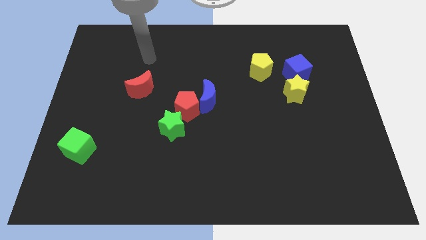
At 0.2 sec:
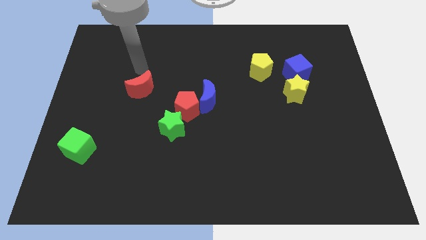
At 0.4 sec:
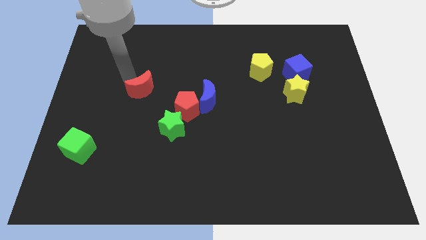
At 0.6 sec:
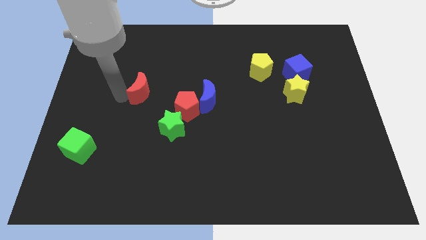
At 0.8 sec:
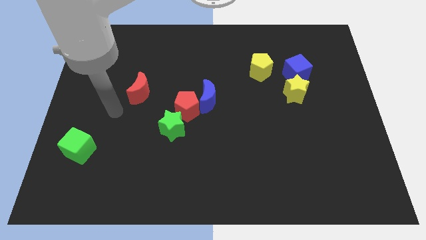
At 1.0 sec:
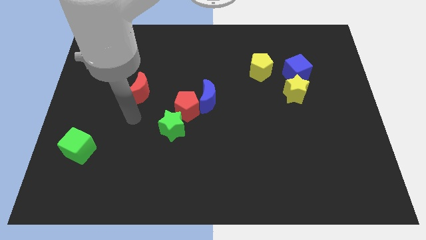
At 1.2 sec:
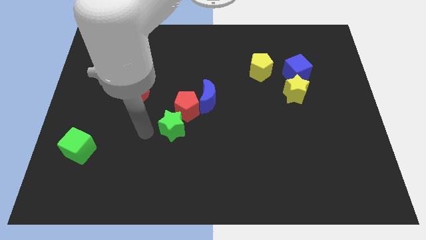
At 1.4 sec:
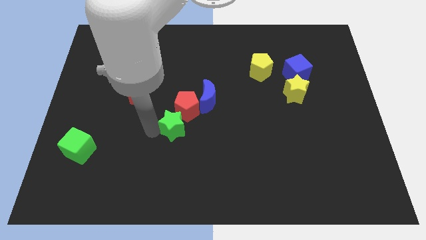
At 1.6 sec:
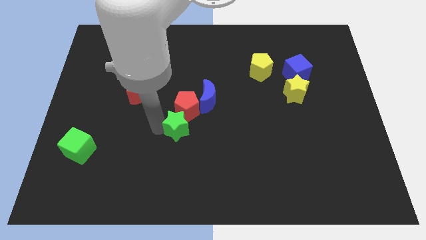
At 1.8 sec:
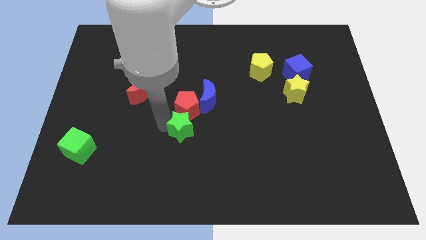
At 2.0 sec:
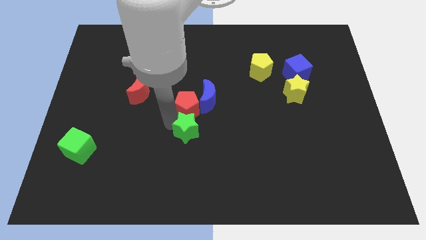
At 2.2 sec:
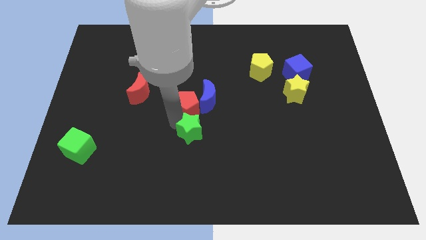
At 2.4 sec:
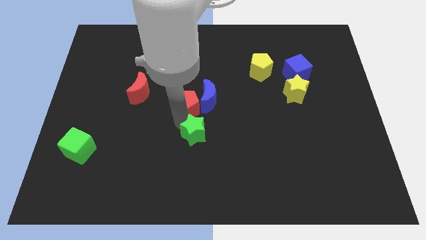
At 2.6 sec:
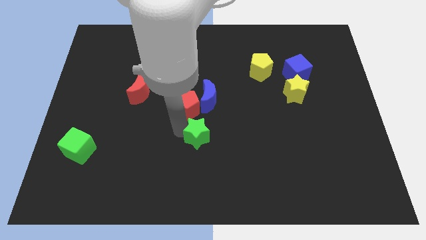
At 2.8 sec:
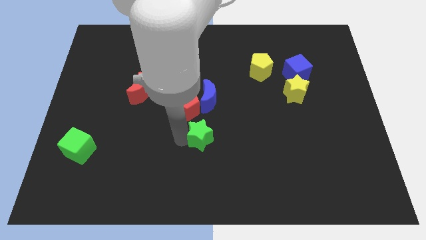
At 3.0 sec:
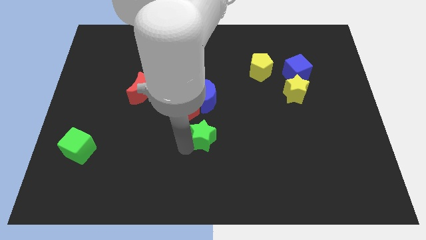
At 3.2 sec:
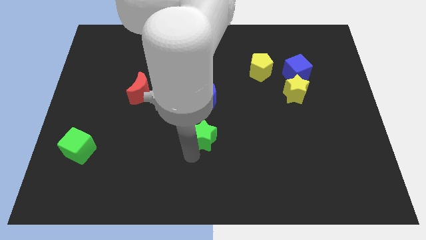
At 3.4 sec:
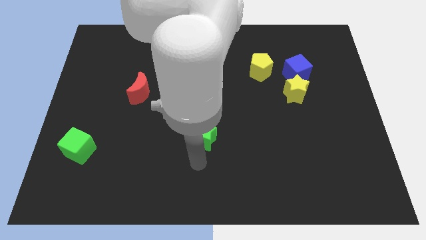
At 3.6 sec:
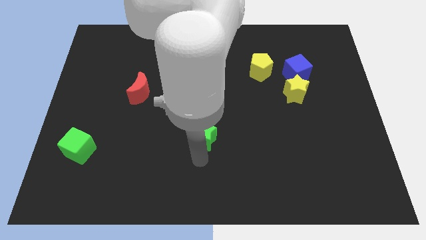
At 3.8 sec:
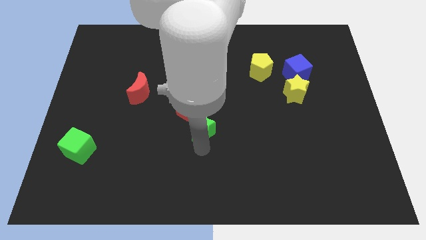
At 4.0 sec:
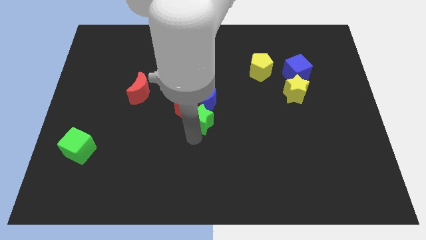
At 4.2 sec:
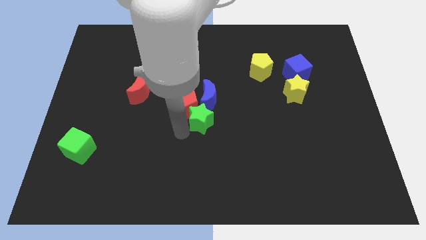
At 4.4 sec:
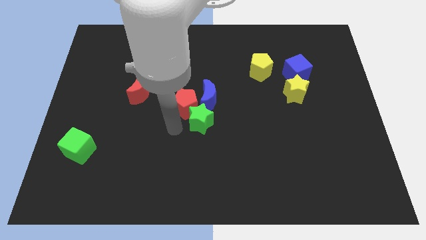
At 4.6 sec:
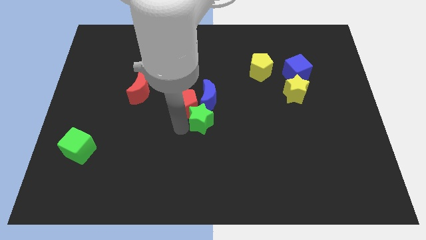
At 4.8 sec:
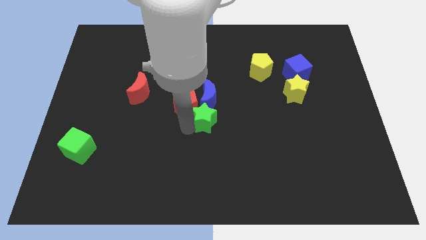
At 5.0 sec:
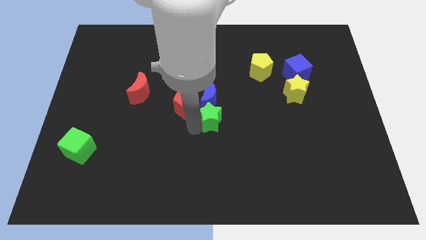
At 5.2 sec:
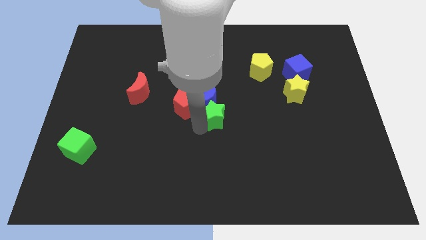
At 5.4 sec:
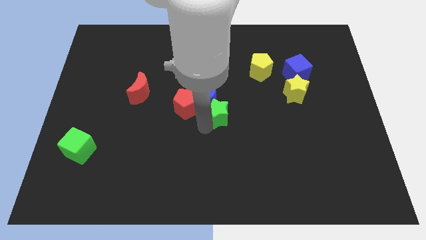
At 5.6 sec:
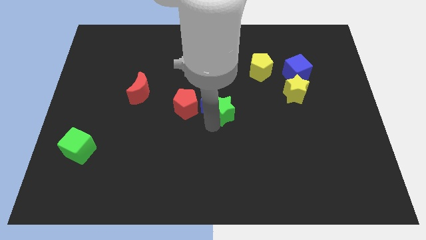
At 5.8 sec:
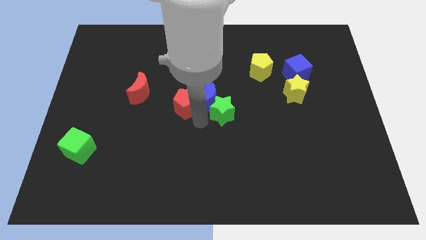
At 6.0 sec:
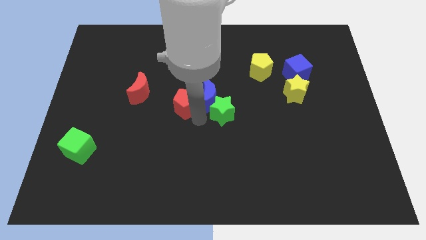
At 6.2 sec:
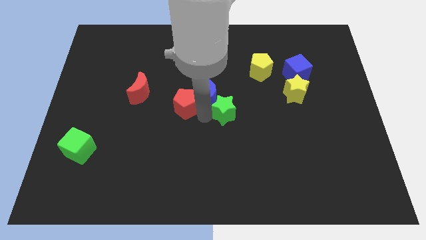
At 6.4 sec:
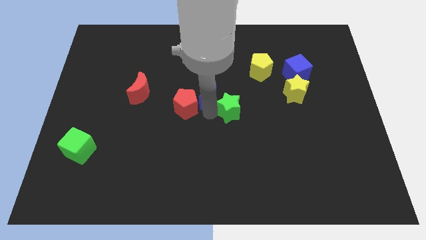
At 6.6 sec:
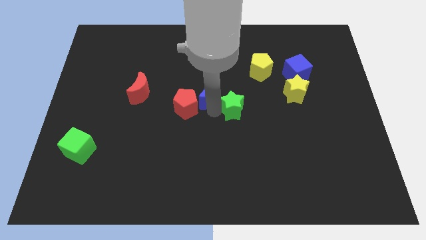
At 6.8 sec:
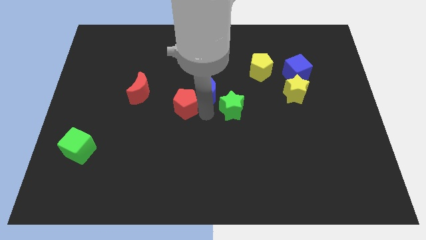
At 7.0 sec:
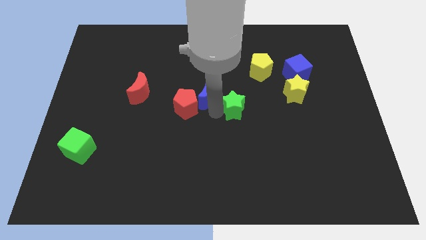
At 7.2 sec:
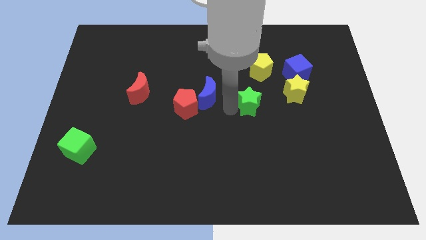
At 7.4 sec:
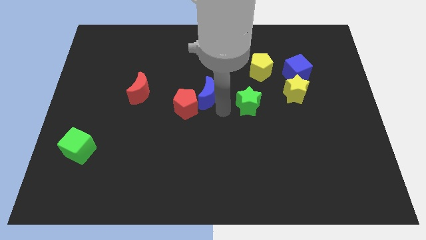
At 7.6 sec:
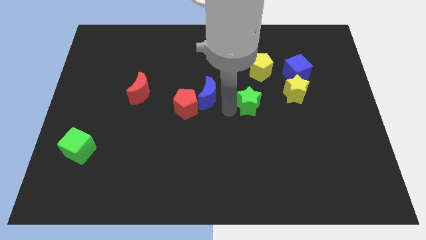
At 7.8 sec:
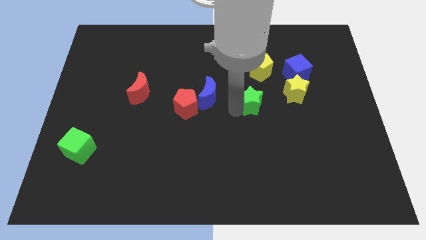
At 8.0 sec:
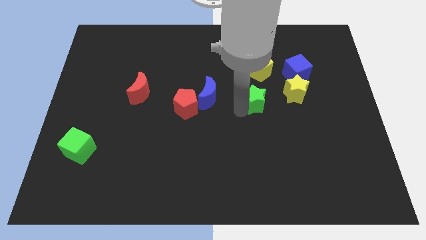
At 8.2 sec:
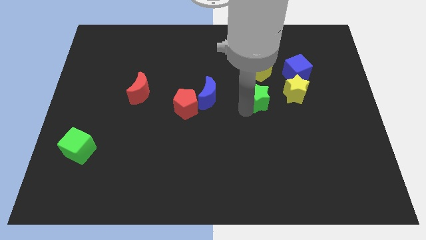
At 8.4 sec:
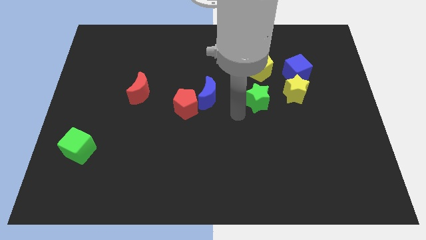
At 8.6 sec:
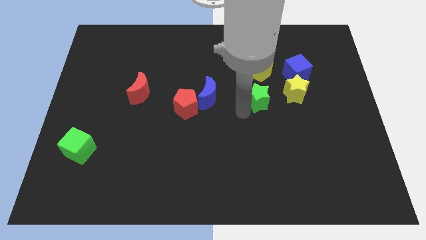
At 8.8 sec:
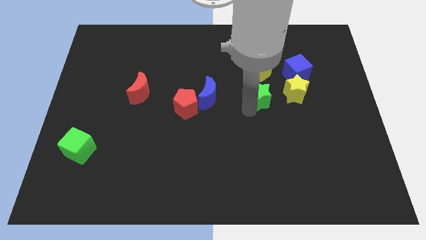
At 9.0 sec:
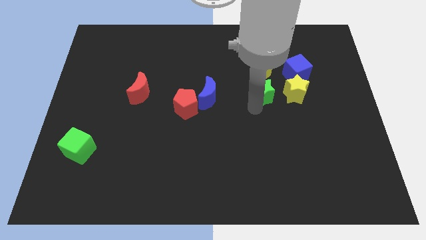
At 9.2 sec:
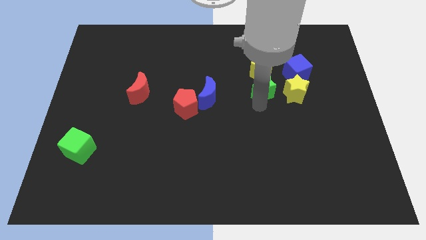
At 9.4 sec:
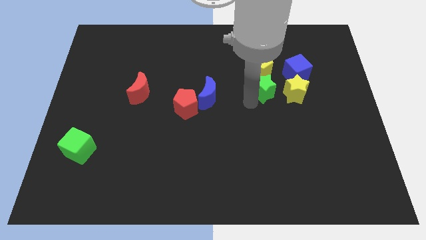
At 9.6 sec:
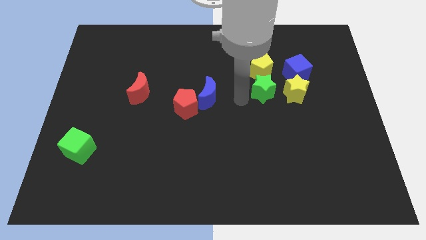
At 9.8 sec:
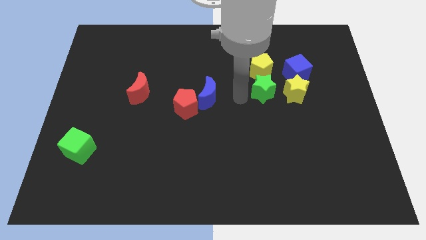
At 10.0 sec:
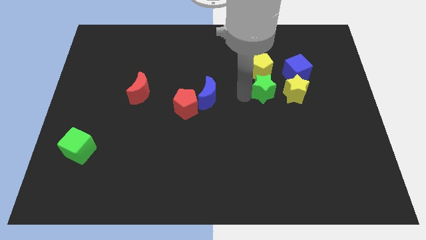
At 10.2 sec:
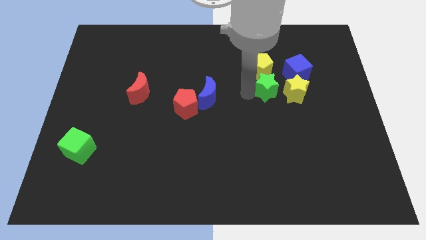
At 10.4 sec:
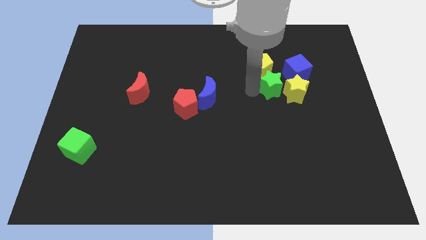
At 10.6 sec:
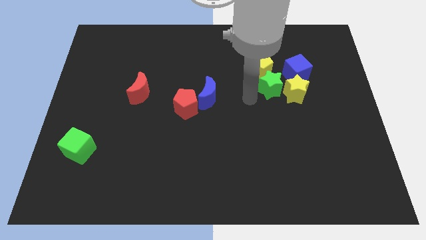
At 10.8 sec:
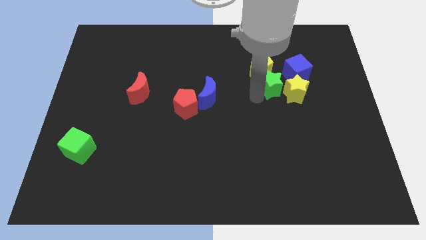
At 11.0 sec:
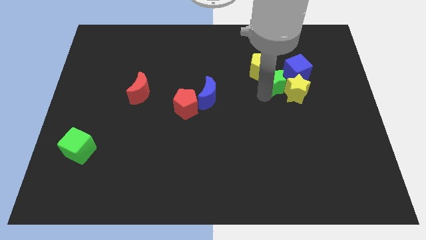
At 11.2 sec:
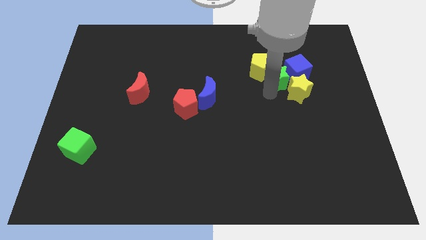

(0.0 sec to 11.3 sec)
move the green star towards the blue cube

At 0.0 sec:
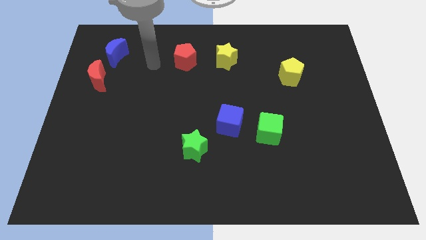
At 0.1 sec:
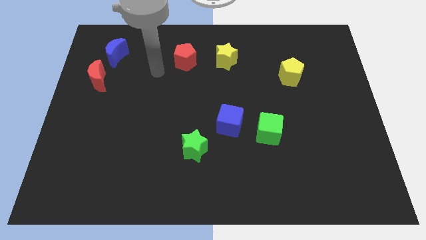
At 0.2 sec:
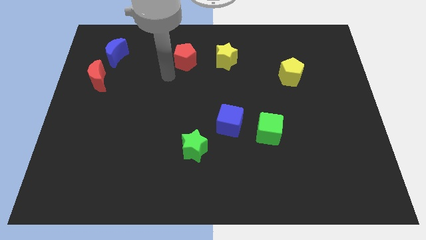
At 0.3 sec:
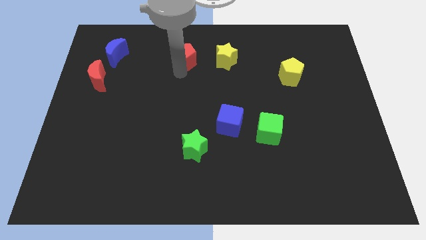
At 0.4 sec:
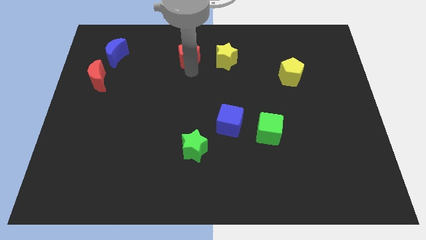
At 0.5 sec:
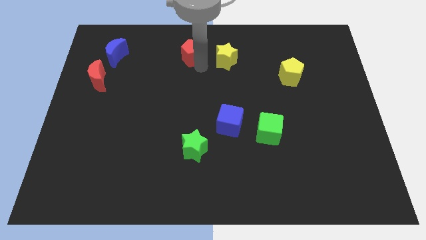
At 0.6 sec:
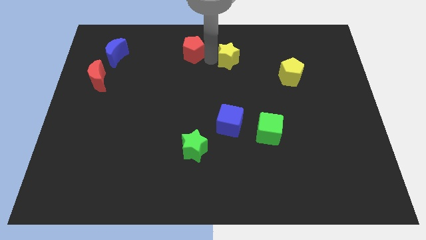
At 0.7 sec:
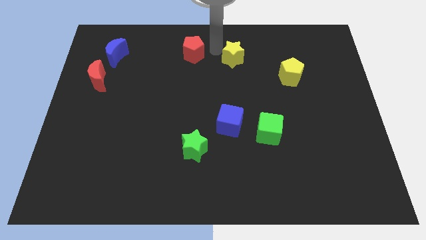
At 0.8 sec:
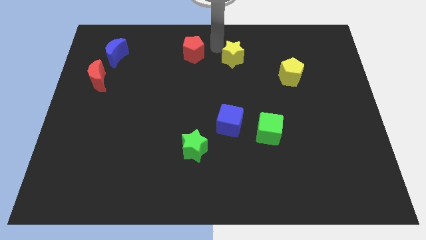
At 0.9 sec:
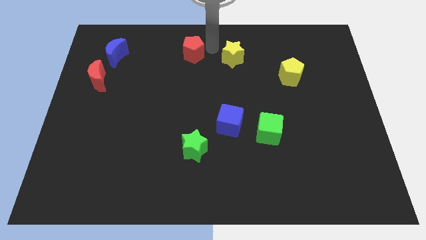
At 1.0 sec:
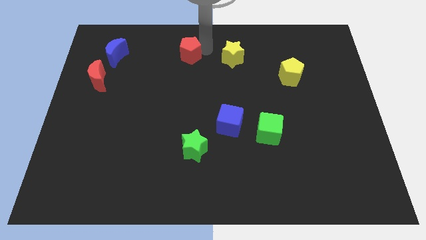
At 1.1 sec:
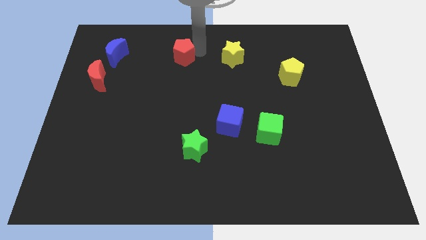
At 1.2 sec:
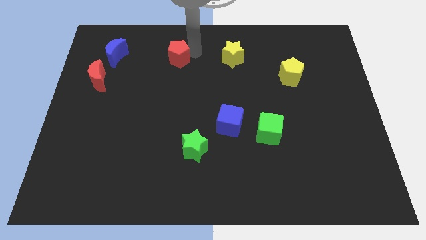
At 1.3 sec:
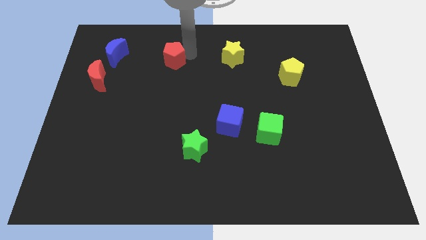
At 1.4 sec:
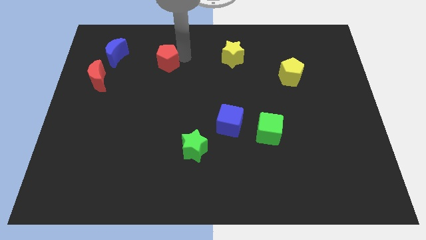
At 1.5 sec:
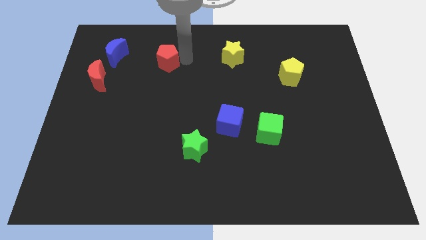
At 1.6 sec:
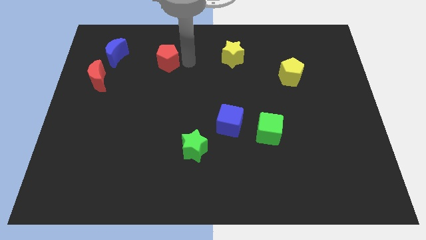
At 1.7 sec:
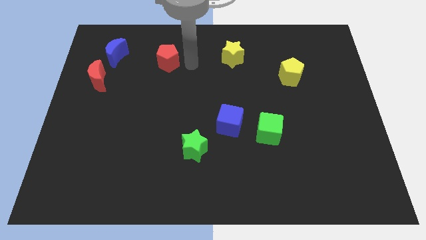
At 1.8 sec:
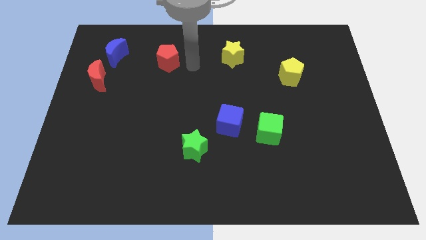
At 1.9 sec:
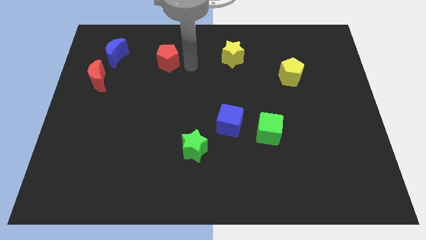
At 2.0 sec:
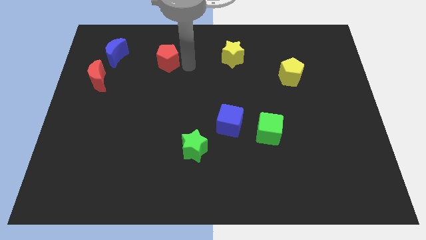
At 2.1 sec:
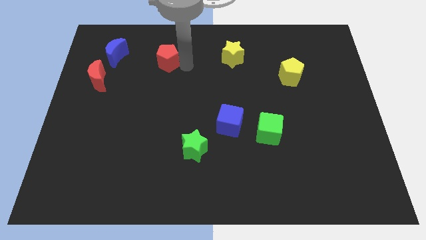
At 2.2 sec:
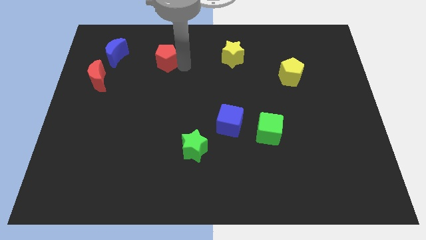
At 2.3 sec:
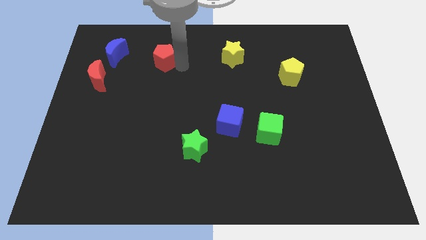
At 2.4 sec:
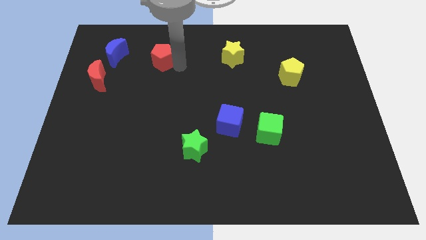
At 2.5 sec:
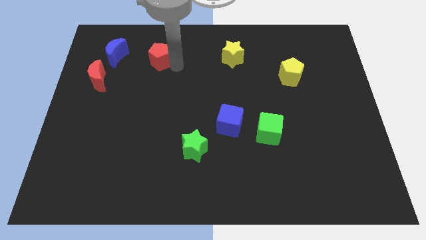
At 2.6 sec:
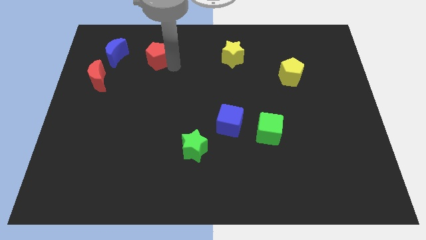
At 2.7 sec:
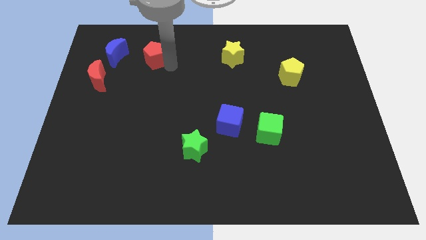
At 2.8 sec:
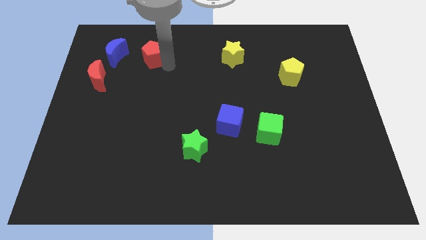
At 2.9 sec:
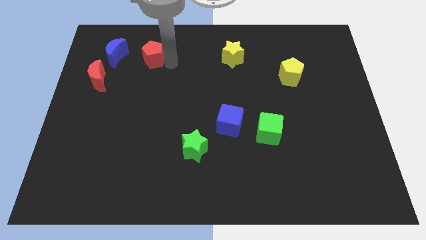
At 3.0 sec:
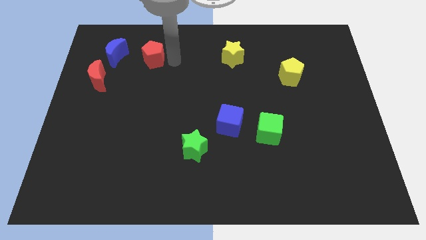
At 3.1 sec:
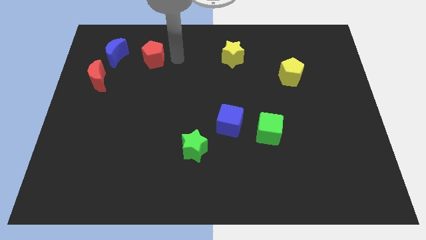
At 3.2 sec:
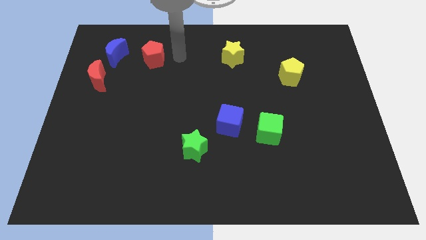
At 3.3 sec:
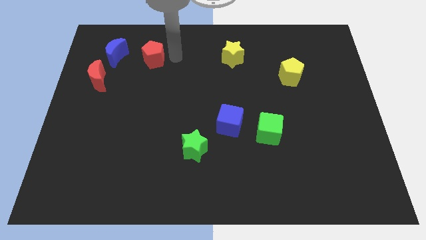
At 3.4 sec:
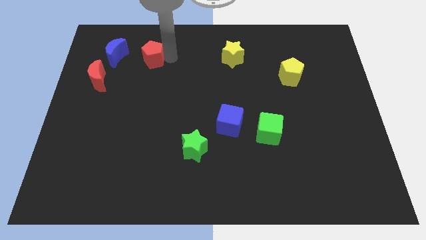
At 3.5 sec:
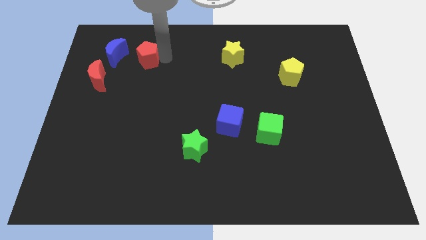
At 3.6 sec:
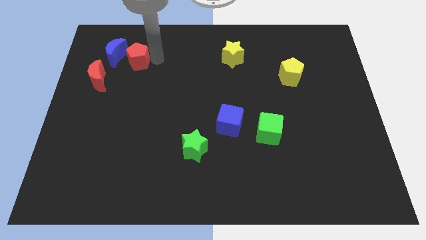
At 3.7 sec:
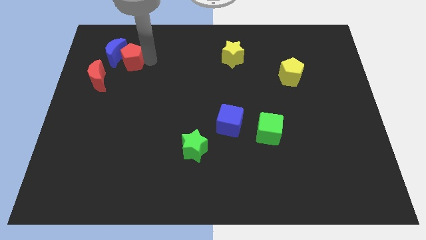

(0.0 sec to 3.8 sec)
push the red pentagon close to the blue moon
